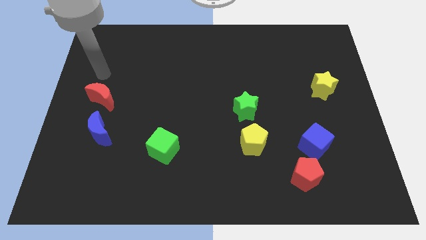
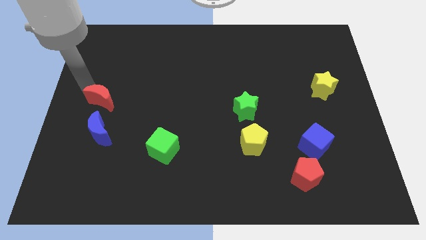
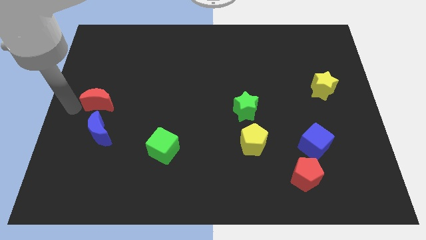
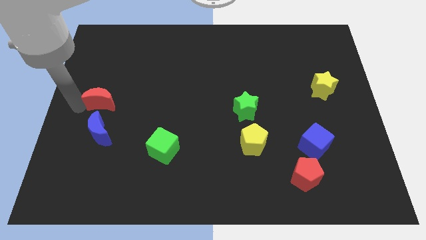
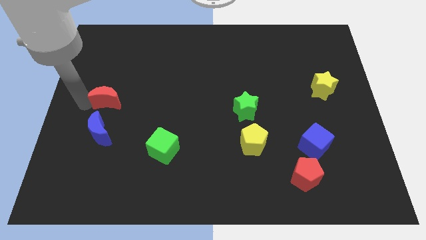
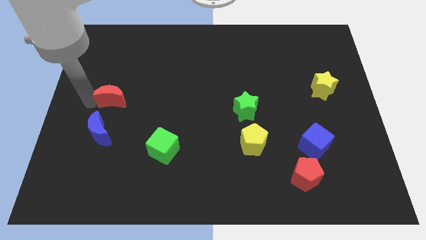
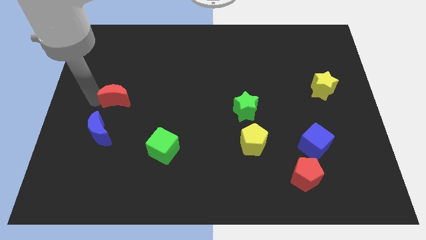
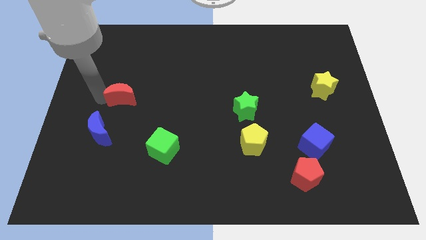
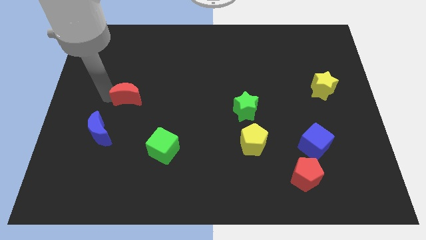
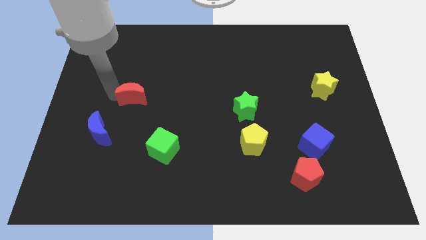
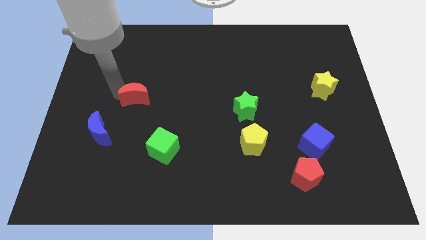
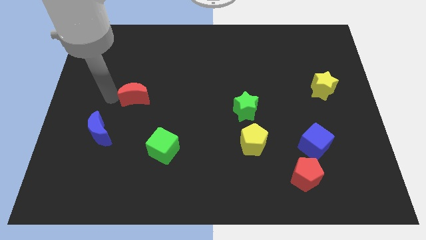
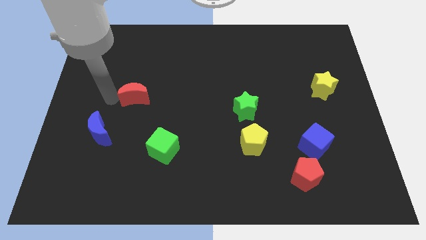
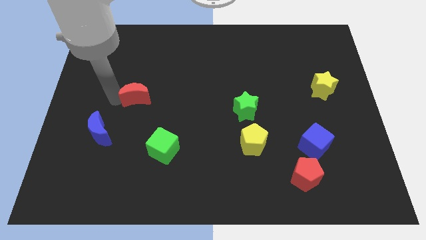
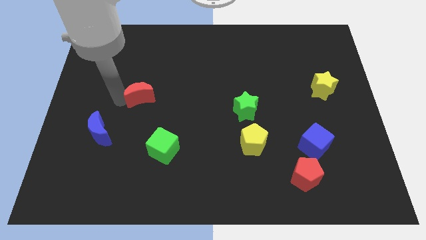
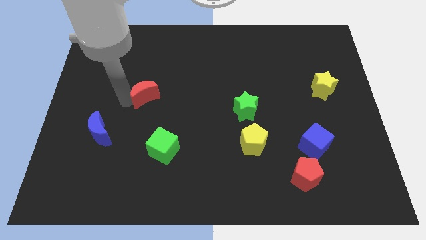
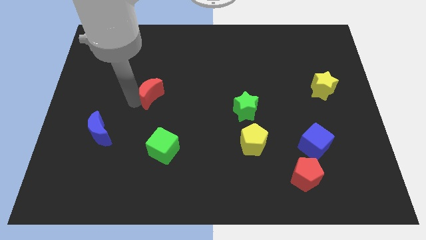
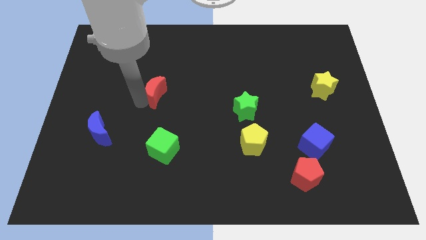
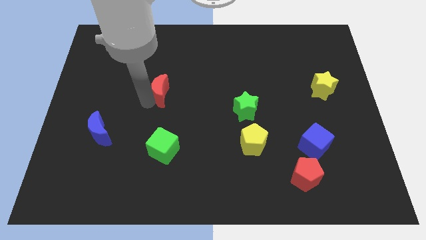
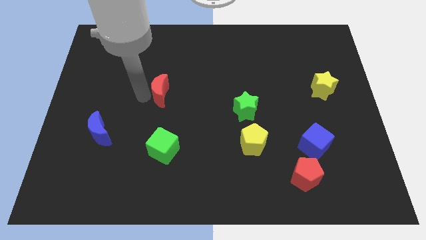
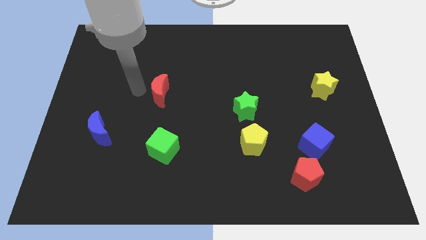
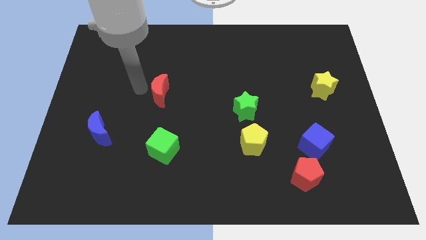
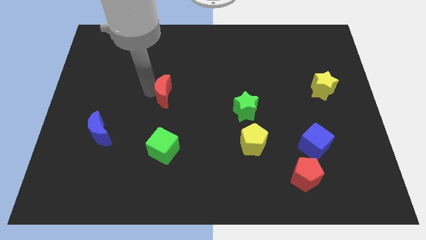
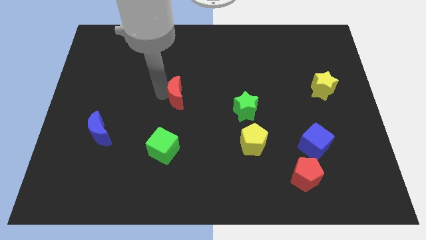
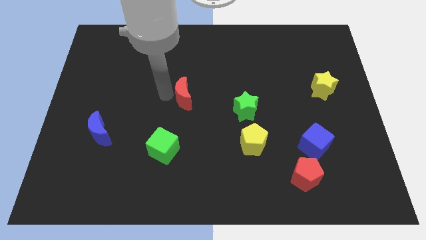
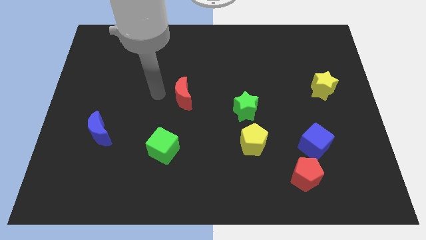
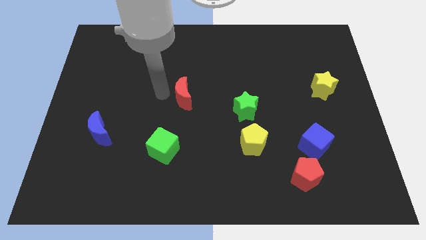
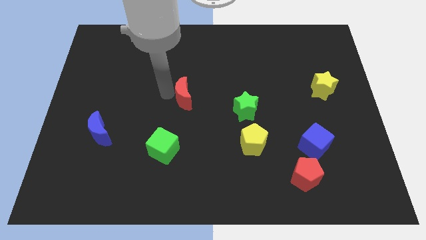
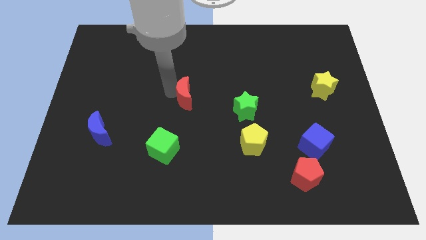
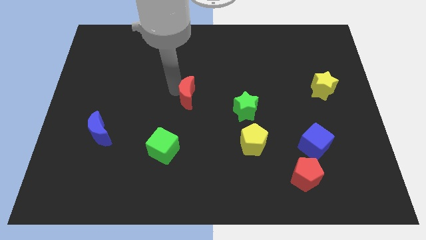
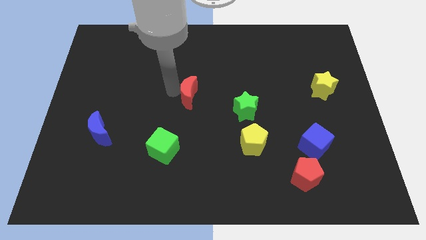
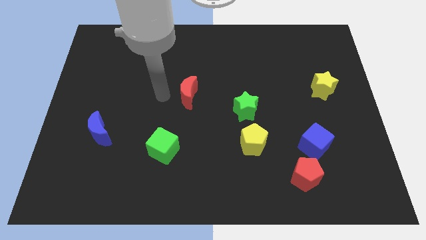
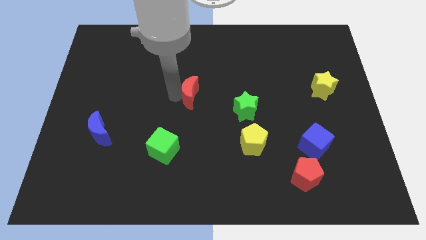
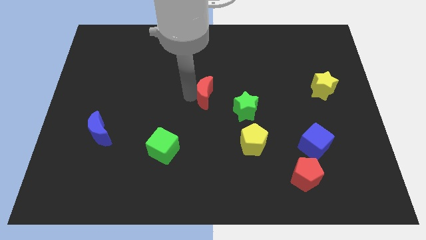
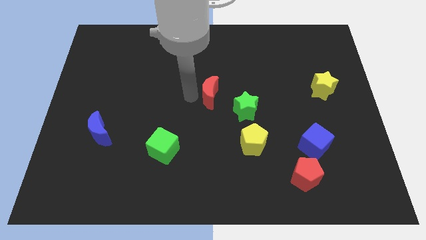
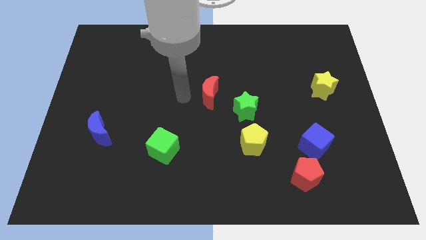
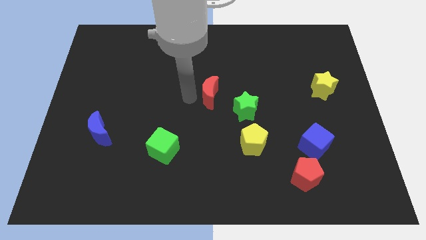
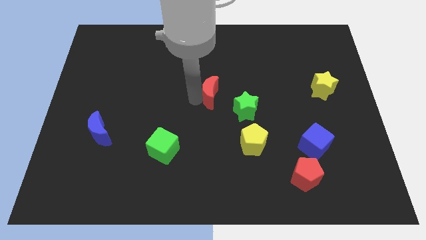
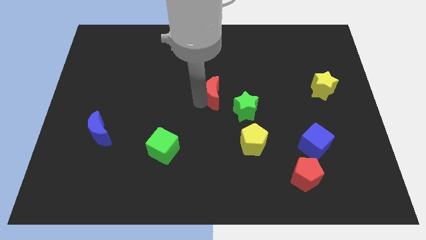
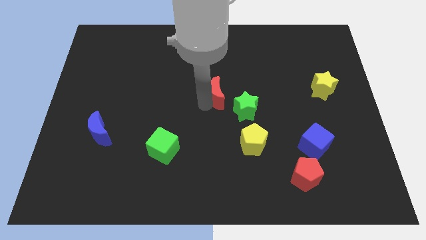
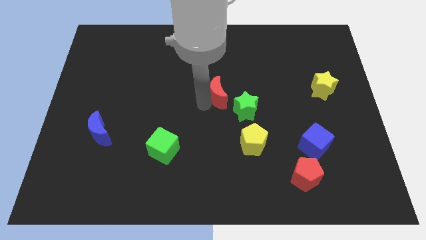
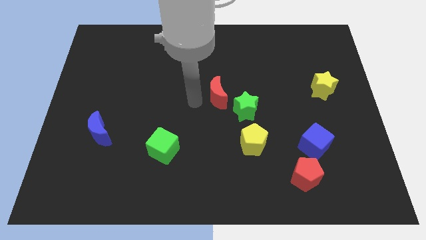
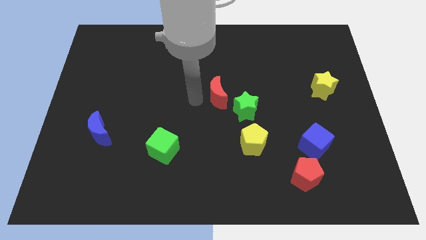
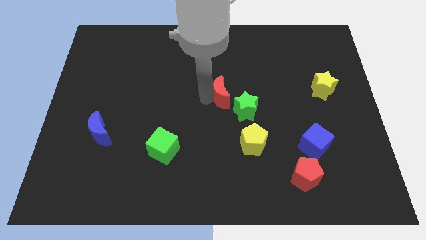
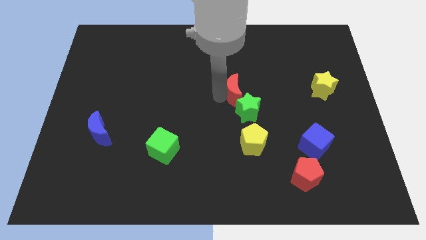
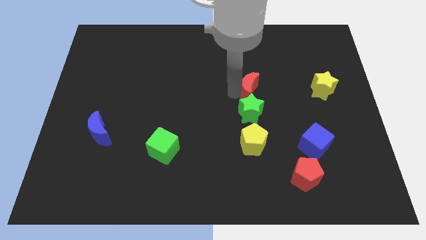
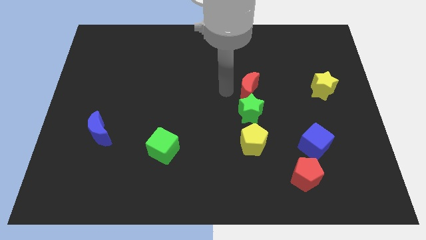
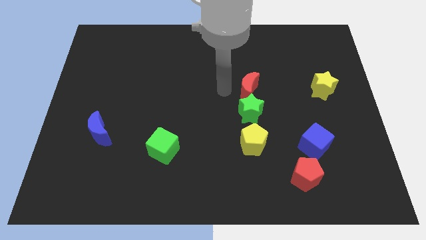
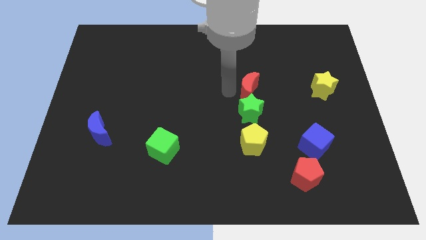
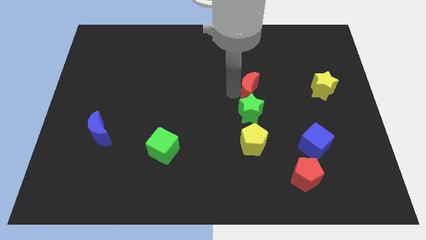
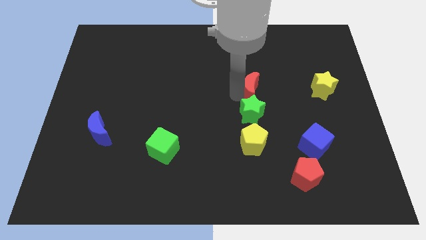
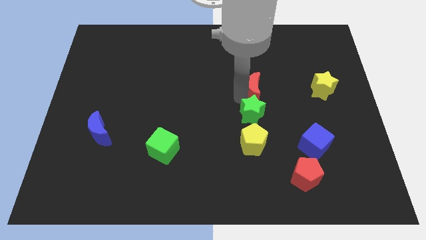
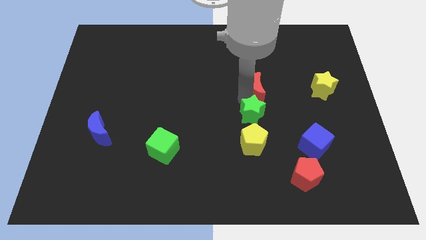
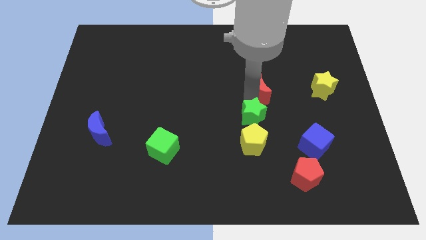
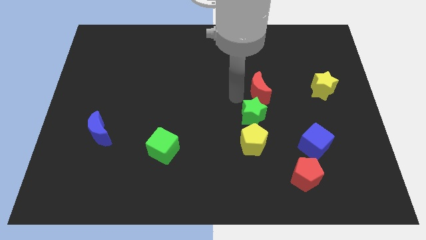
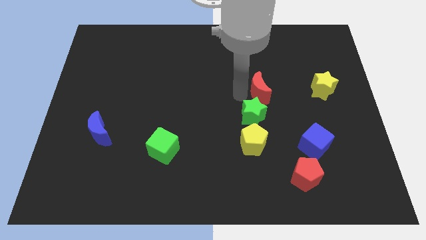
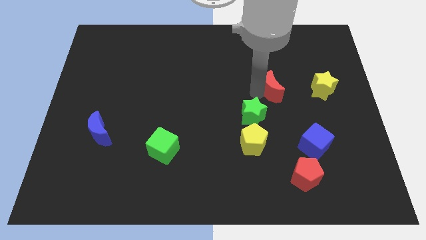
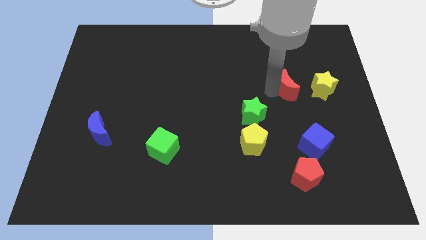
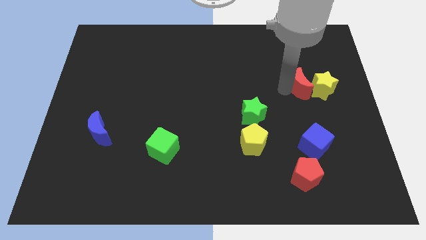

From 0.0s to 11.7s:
move the red moon towards the yellow star
